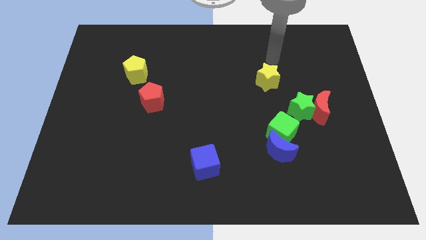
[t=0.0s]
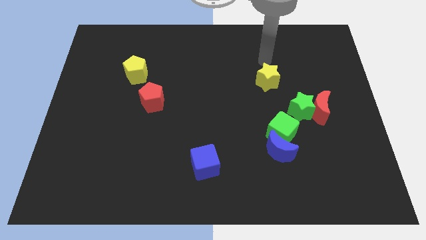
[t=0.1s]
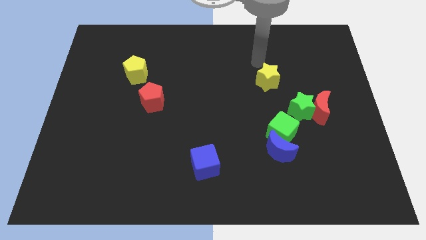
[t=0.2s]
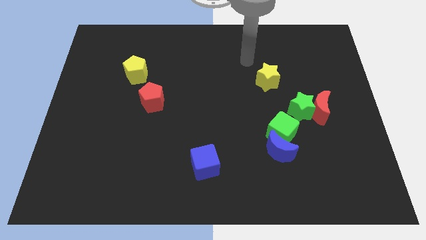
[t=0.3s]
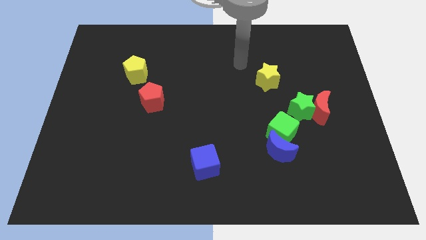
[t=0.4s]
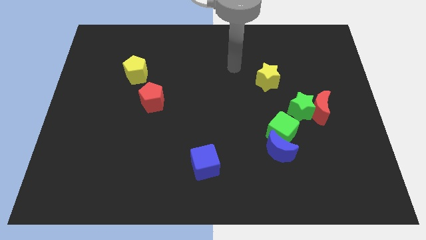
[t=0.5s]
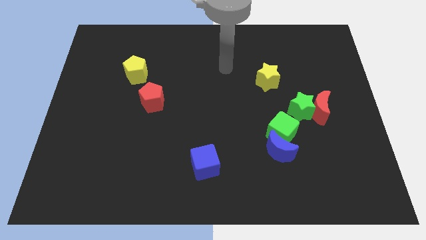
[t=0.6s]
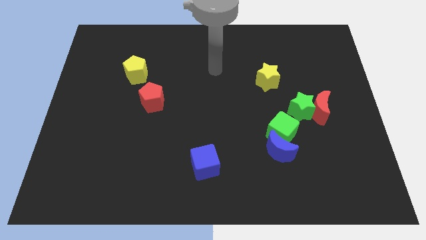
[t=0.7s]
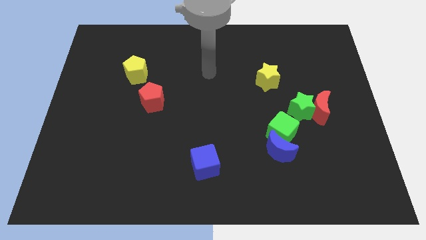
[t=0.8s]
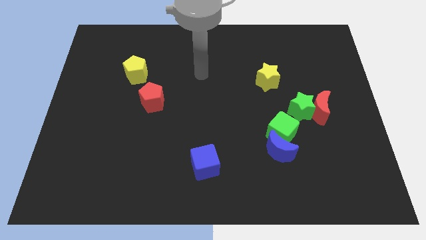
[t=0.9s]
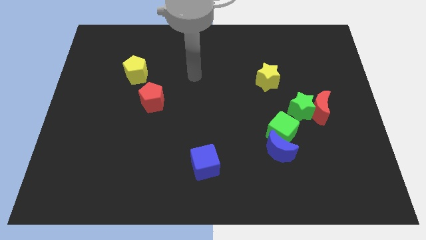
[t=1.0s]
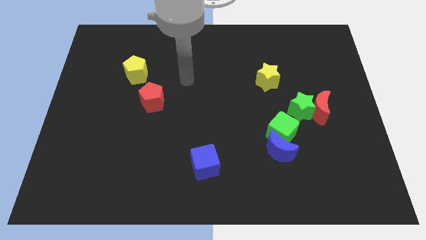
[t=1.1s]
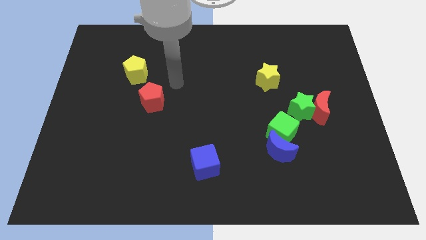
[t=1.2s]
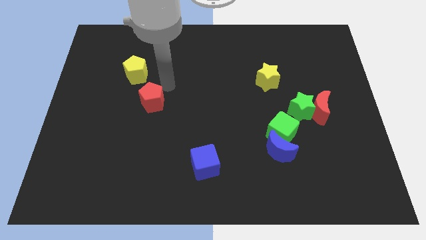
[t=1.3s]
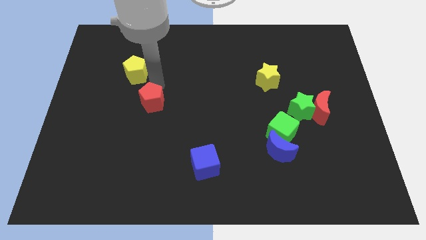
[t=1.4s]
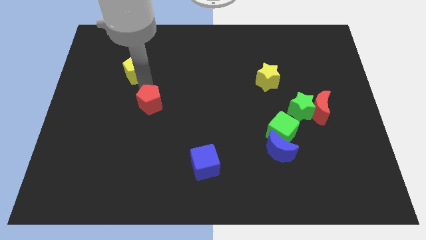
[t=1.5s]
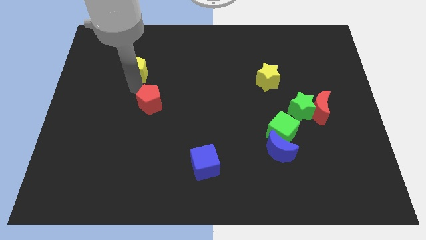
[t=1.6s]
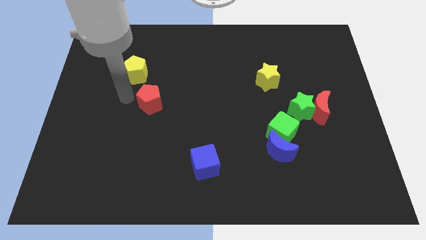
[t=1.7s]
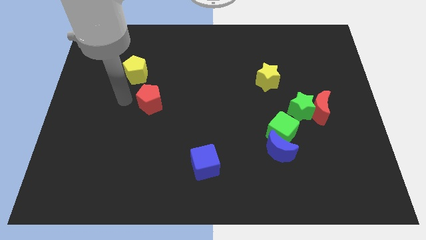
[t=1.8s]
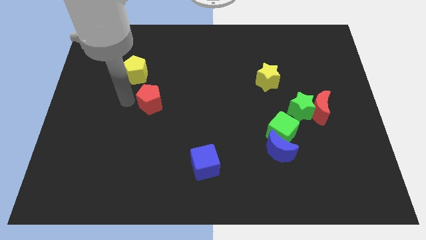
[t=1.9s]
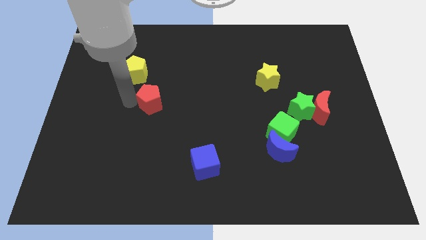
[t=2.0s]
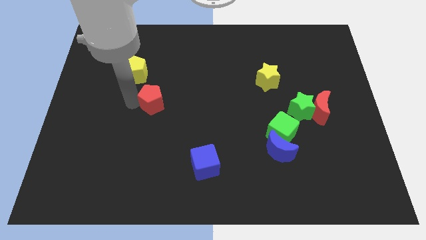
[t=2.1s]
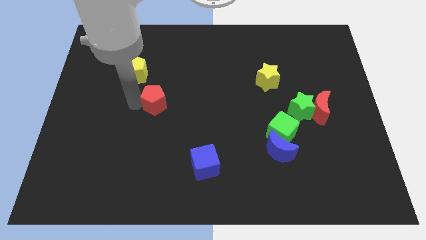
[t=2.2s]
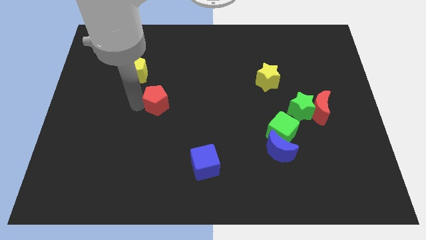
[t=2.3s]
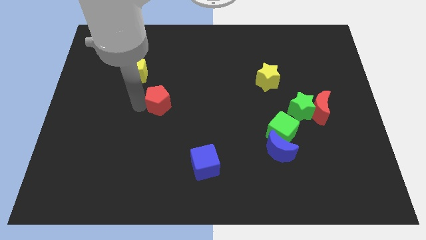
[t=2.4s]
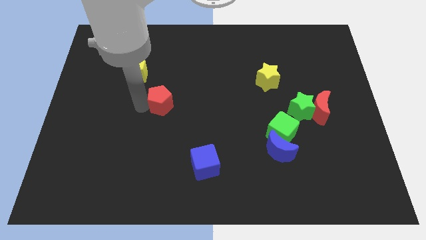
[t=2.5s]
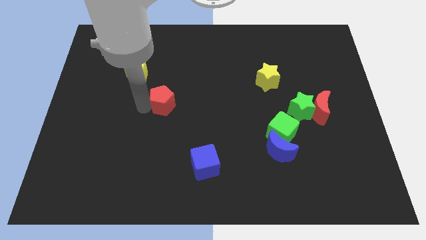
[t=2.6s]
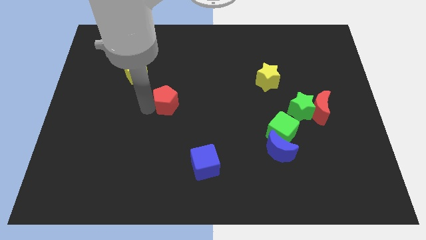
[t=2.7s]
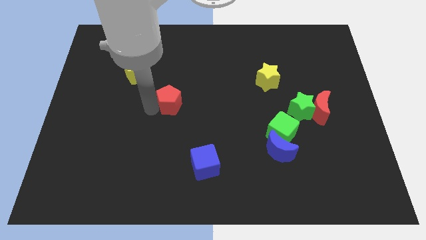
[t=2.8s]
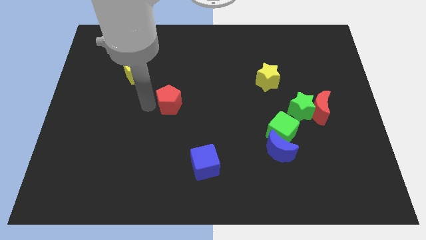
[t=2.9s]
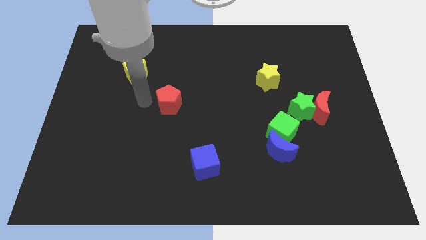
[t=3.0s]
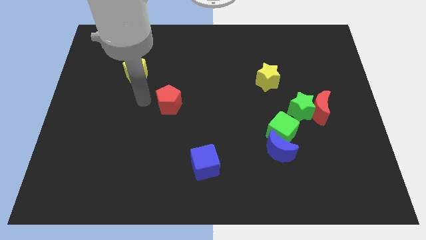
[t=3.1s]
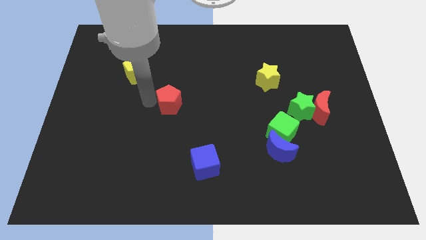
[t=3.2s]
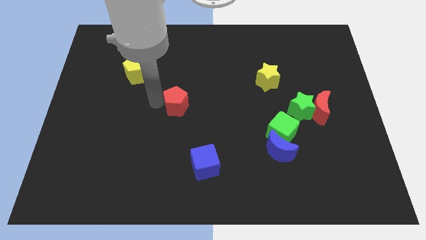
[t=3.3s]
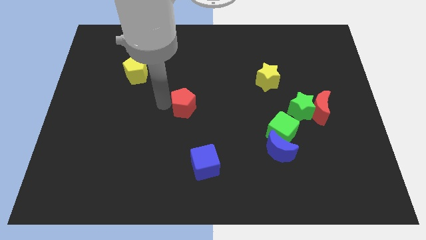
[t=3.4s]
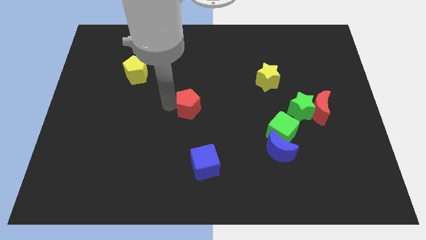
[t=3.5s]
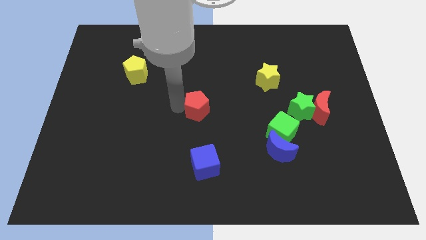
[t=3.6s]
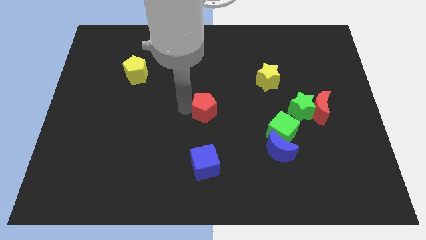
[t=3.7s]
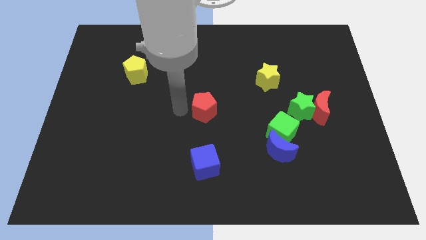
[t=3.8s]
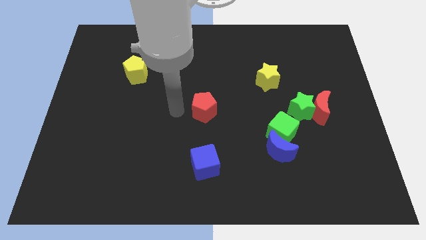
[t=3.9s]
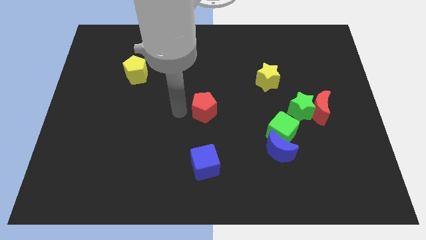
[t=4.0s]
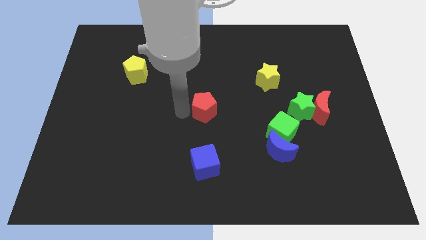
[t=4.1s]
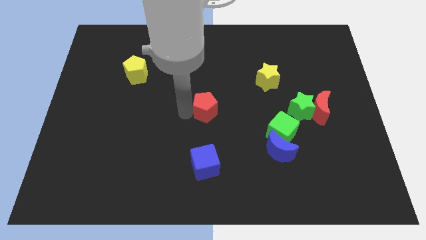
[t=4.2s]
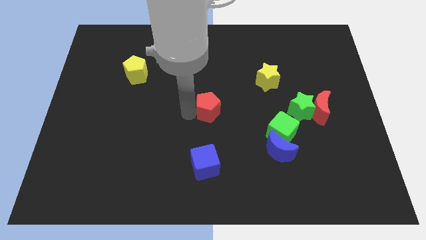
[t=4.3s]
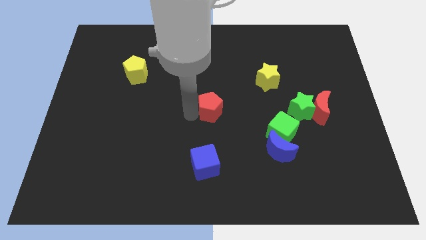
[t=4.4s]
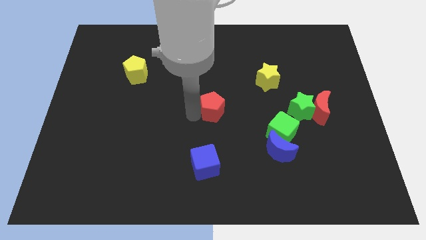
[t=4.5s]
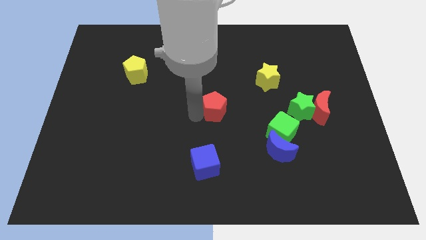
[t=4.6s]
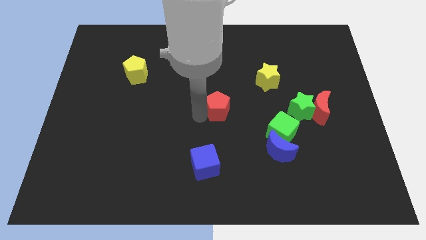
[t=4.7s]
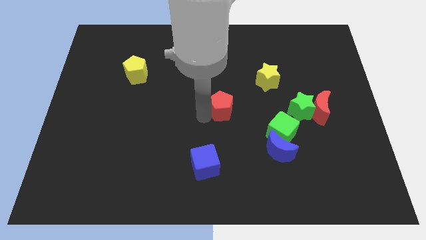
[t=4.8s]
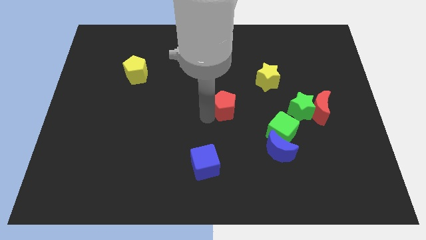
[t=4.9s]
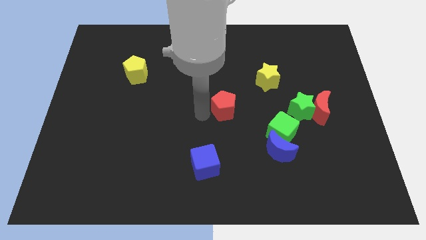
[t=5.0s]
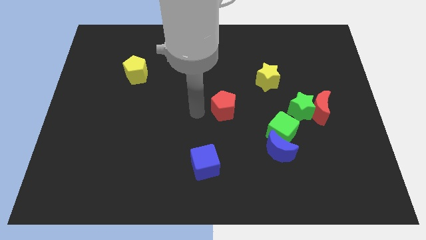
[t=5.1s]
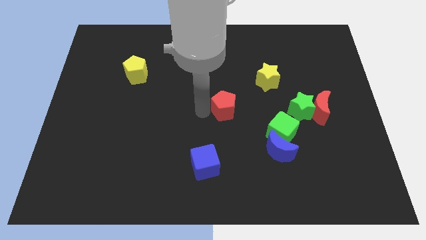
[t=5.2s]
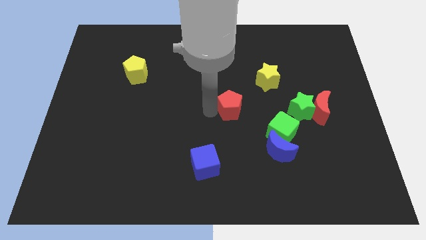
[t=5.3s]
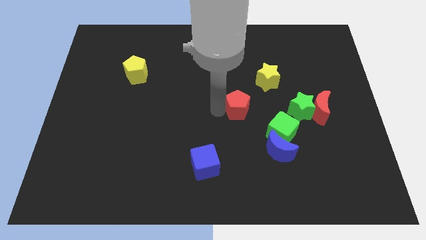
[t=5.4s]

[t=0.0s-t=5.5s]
push the red pentagon to the right

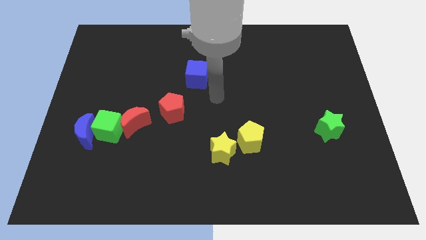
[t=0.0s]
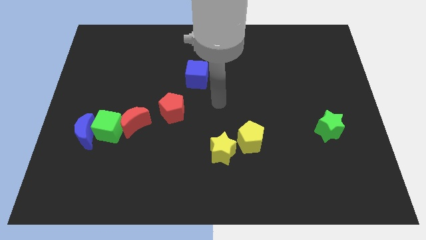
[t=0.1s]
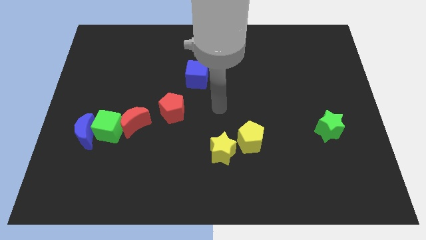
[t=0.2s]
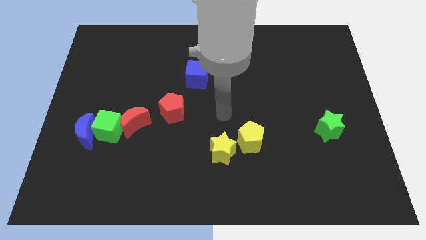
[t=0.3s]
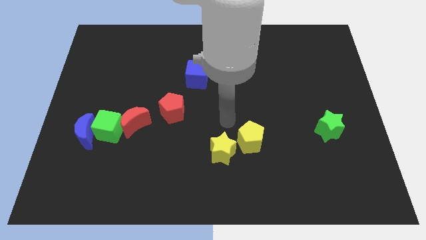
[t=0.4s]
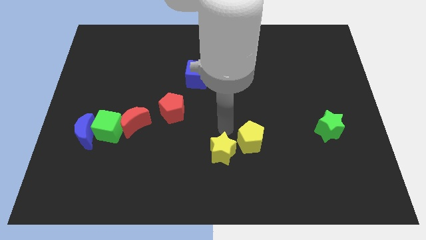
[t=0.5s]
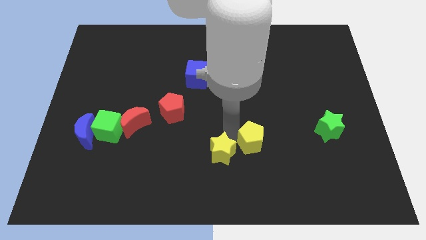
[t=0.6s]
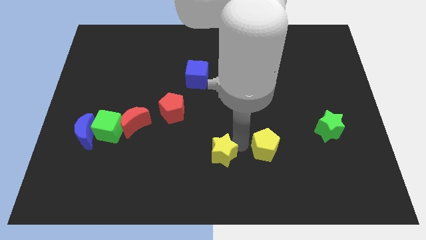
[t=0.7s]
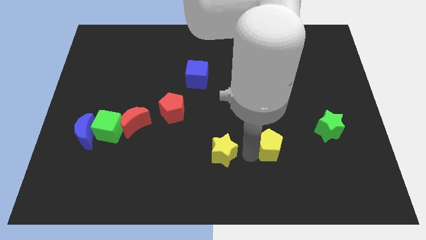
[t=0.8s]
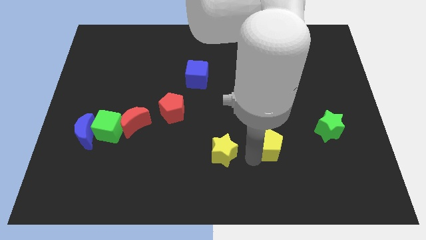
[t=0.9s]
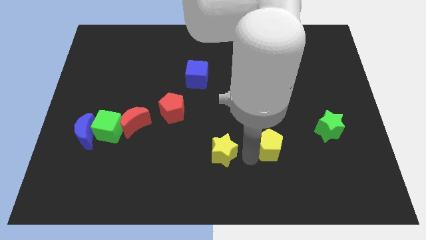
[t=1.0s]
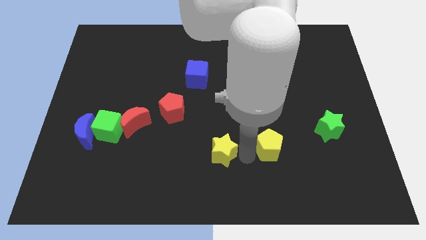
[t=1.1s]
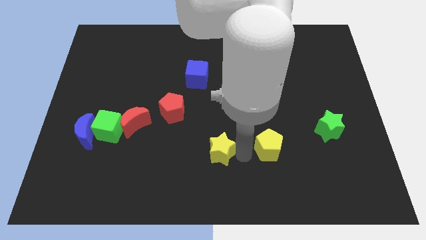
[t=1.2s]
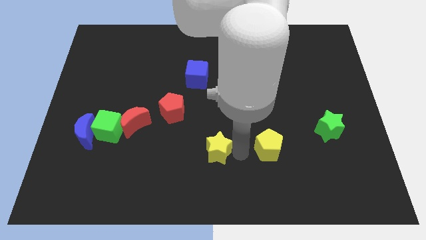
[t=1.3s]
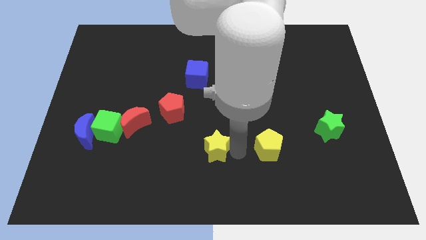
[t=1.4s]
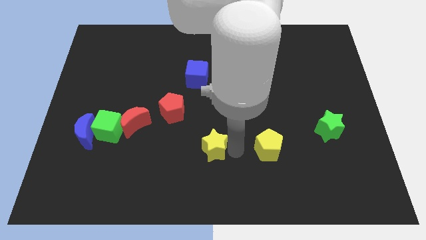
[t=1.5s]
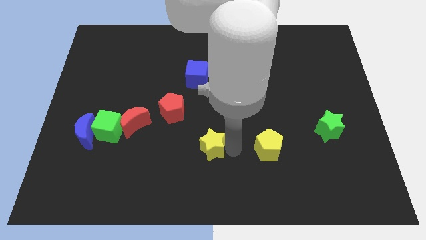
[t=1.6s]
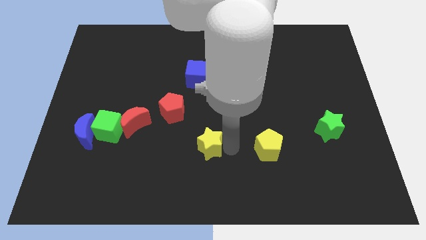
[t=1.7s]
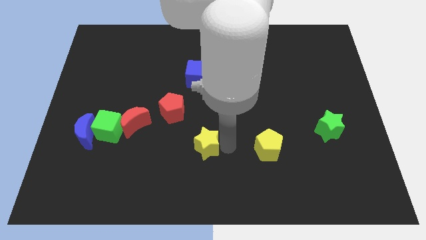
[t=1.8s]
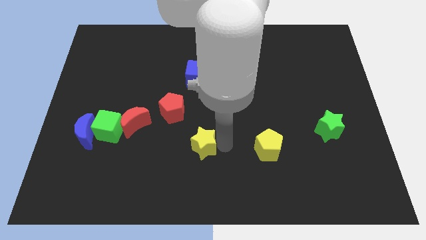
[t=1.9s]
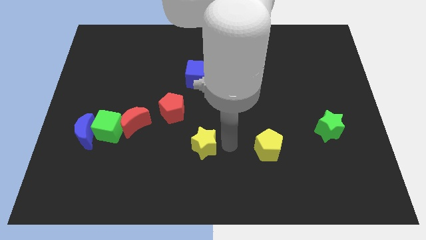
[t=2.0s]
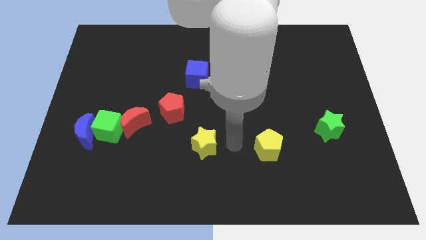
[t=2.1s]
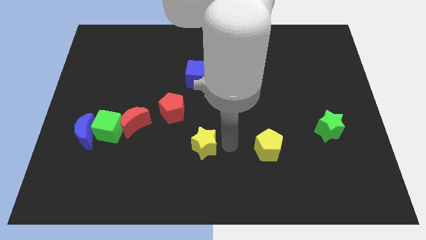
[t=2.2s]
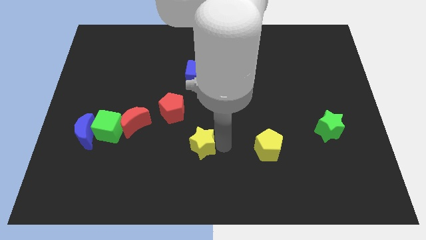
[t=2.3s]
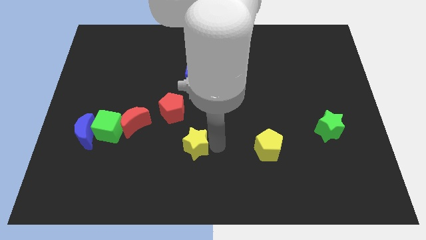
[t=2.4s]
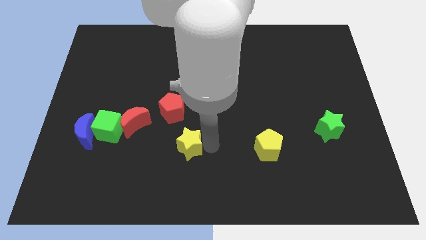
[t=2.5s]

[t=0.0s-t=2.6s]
move the yellow star left somewhat
